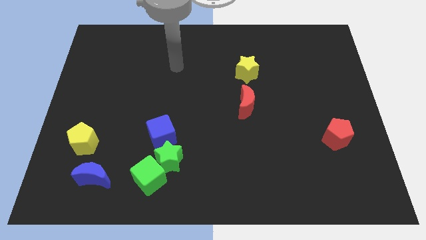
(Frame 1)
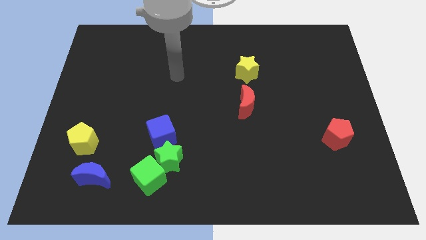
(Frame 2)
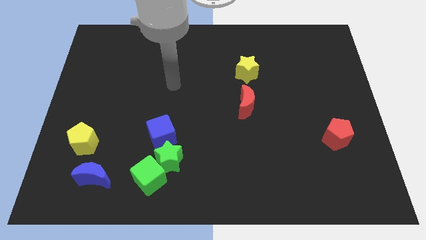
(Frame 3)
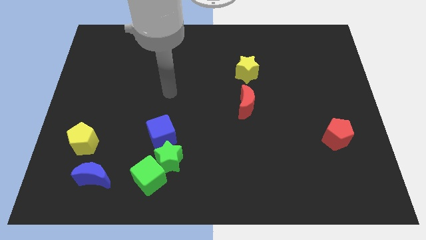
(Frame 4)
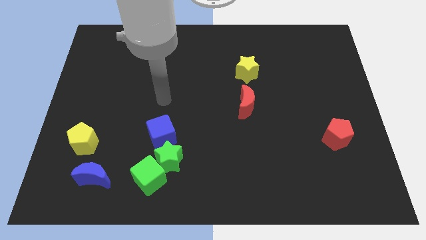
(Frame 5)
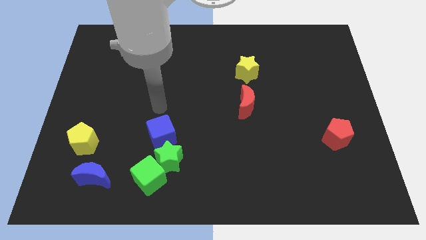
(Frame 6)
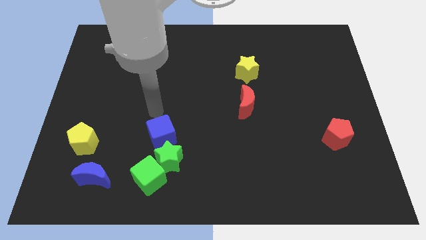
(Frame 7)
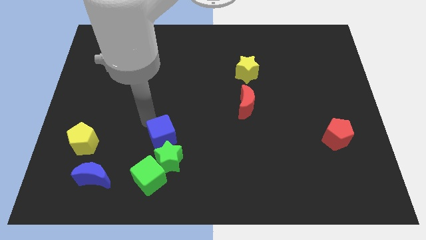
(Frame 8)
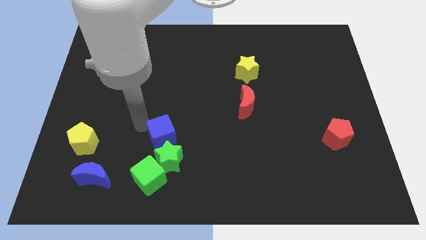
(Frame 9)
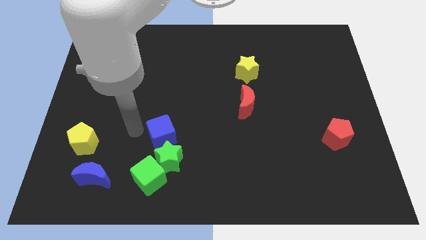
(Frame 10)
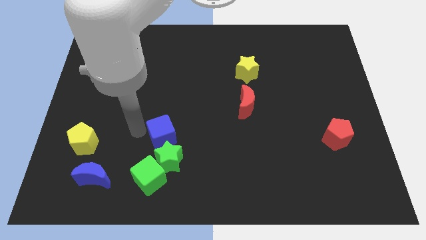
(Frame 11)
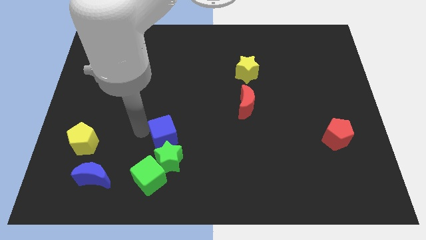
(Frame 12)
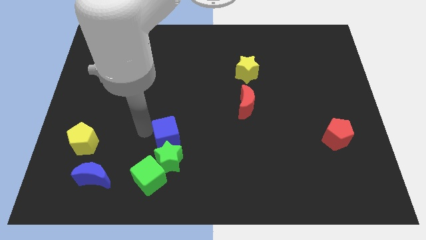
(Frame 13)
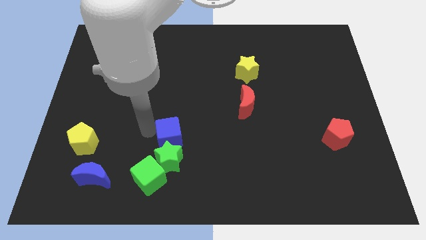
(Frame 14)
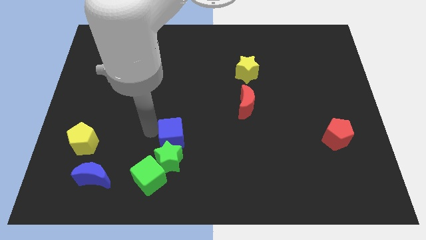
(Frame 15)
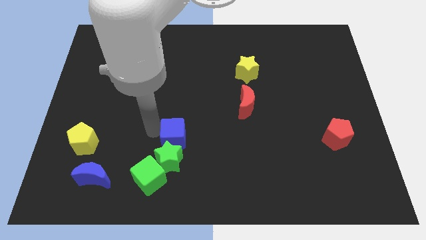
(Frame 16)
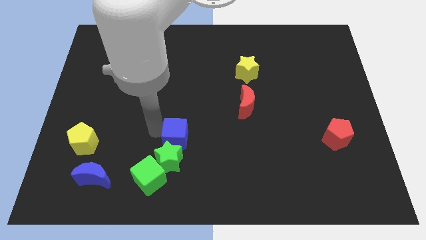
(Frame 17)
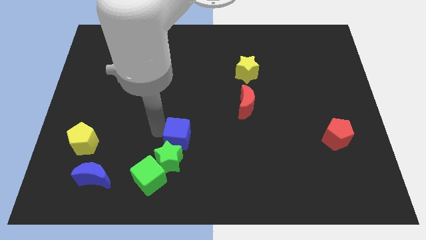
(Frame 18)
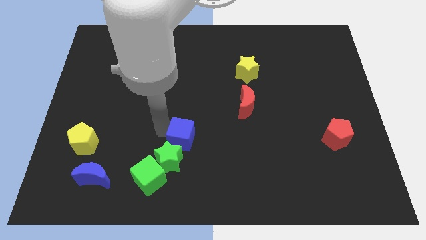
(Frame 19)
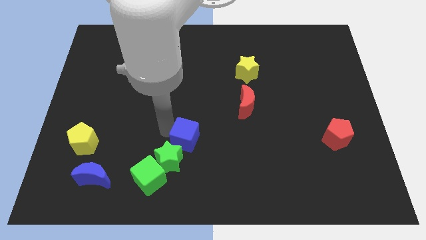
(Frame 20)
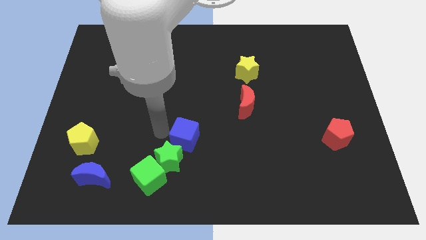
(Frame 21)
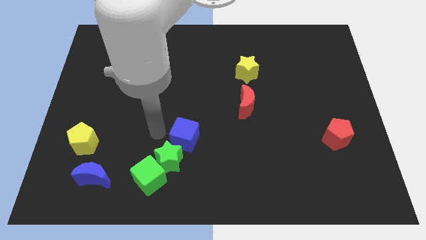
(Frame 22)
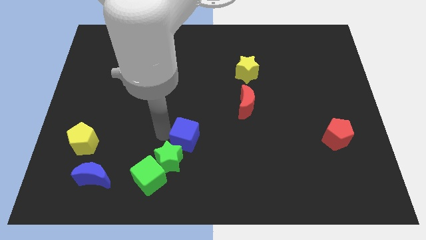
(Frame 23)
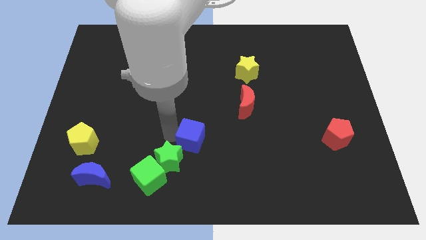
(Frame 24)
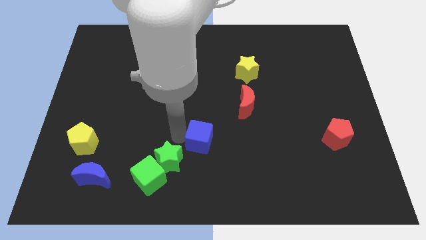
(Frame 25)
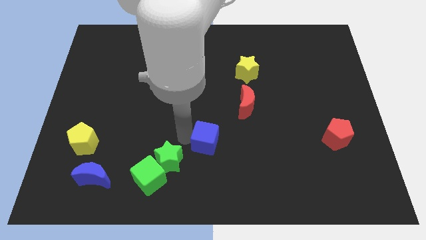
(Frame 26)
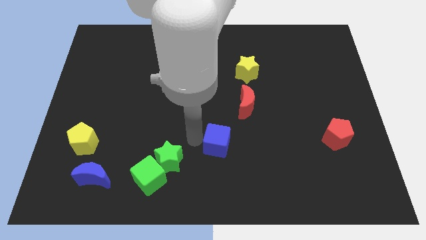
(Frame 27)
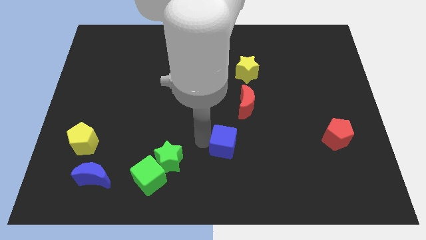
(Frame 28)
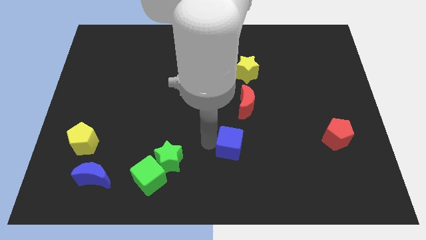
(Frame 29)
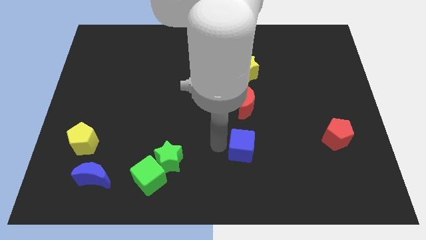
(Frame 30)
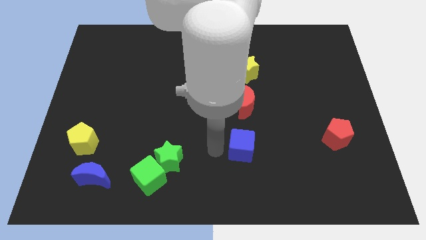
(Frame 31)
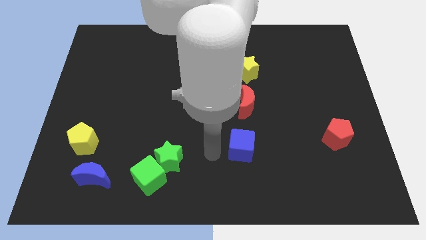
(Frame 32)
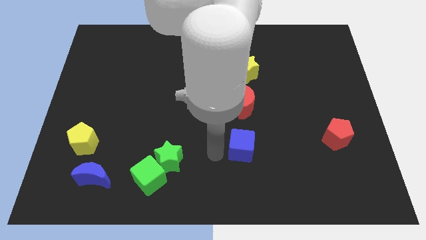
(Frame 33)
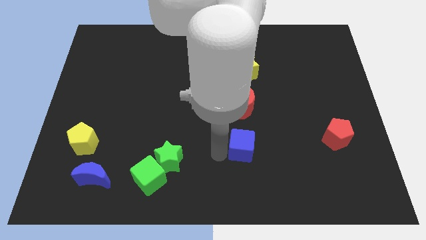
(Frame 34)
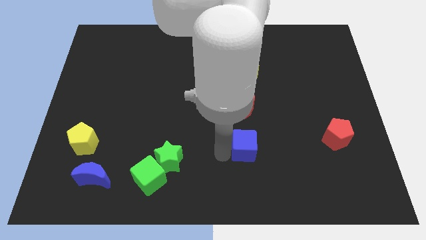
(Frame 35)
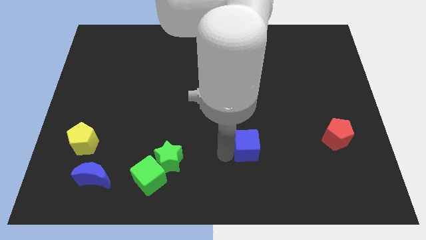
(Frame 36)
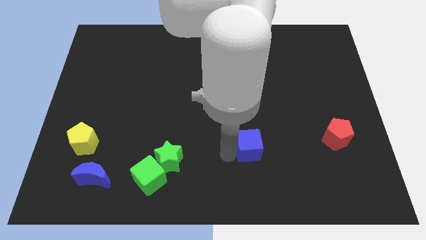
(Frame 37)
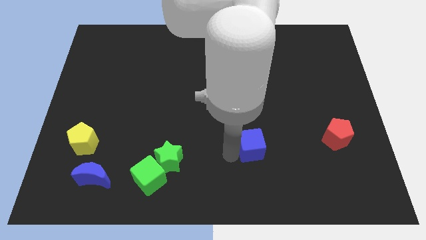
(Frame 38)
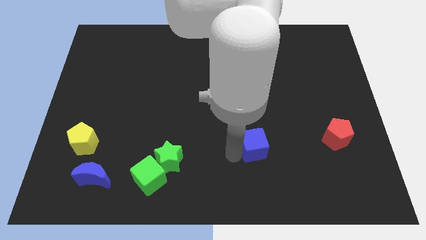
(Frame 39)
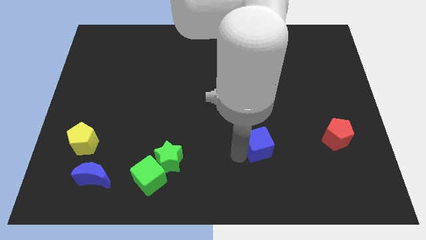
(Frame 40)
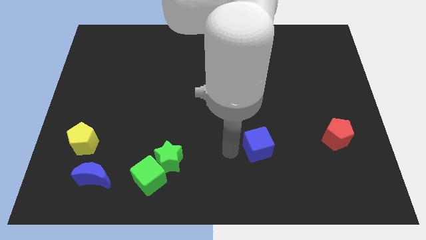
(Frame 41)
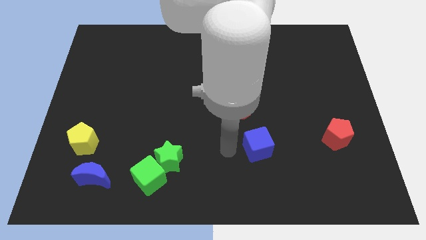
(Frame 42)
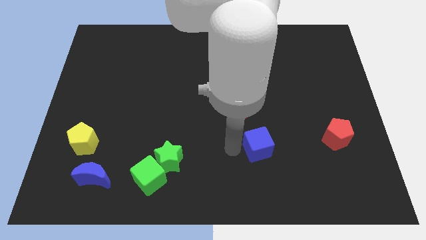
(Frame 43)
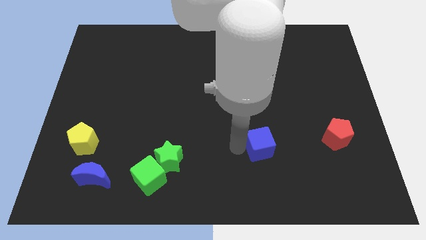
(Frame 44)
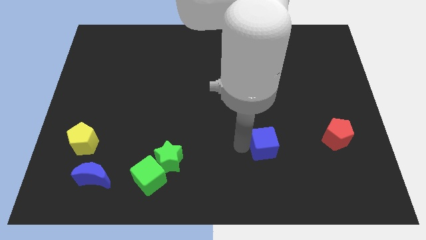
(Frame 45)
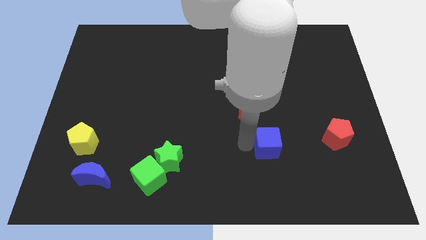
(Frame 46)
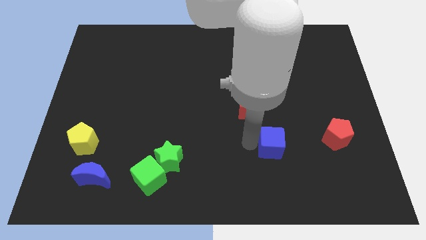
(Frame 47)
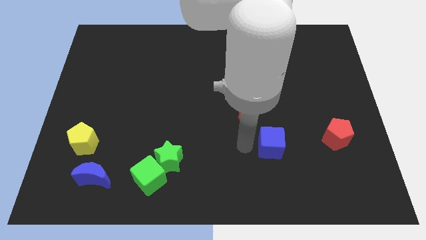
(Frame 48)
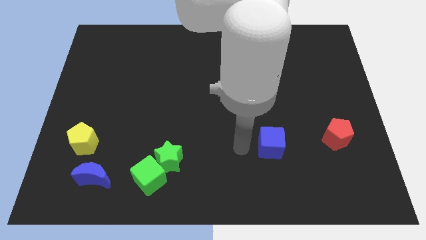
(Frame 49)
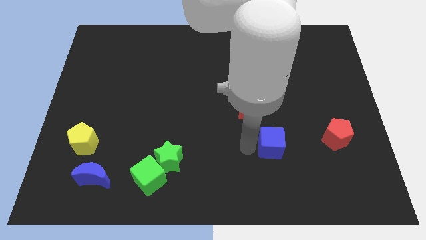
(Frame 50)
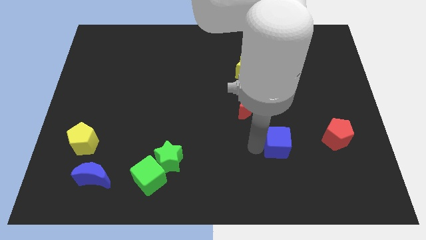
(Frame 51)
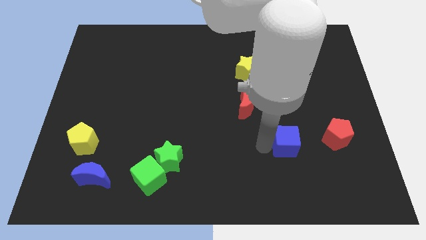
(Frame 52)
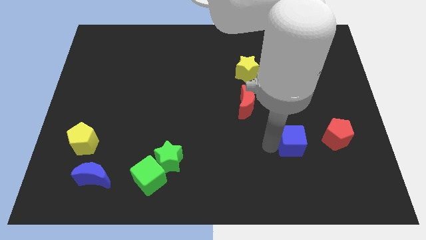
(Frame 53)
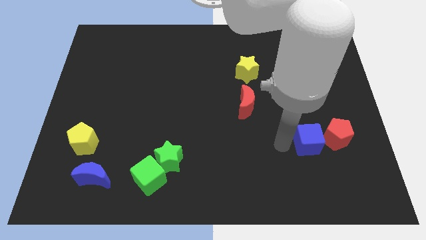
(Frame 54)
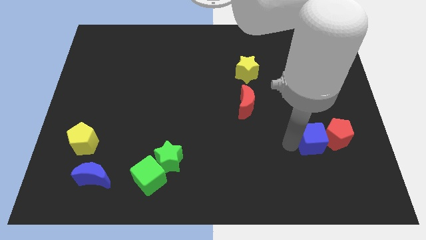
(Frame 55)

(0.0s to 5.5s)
slide the blue cube close to the red pentagon

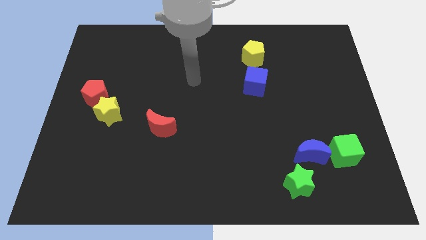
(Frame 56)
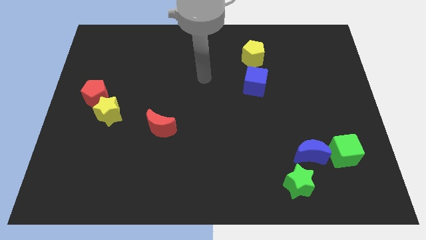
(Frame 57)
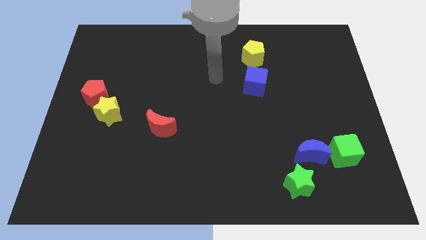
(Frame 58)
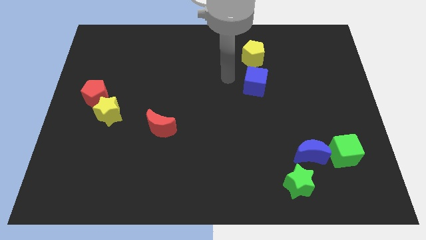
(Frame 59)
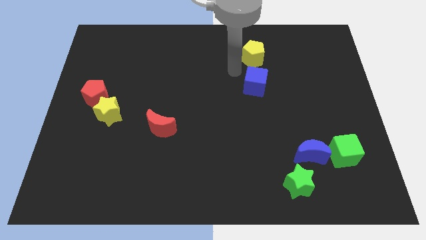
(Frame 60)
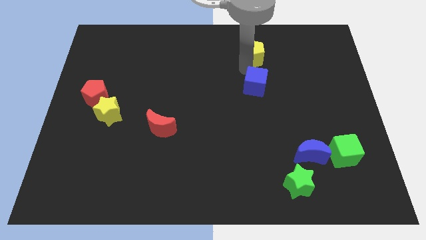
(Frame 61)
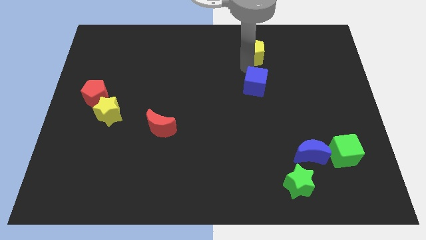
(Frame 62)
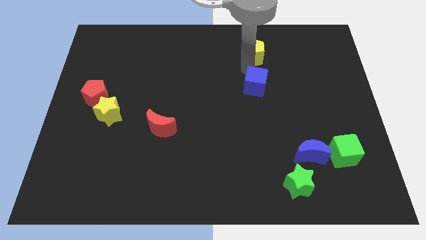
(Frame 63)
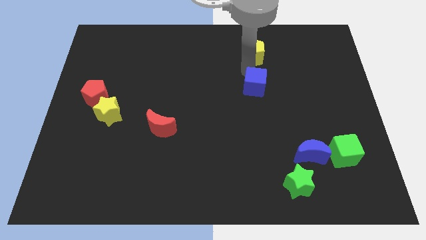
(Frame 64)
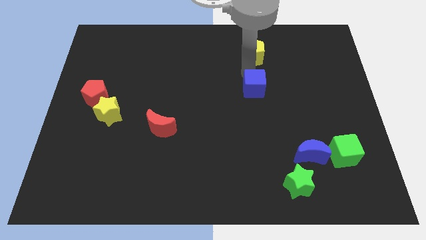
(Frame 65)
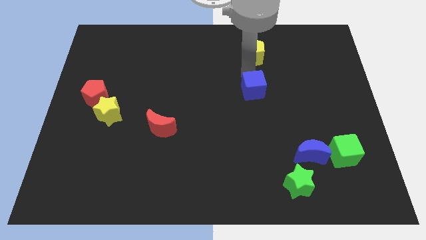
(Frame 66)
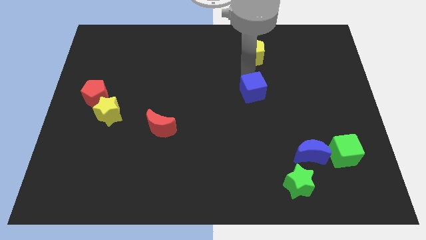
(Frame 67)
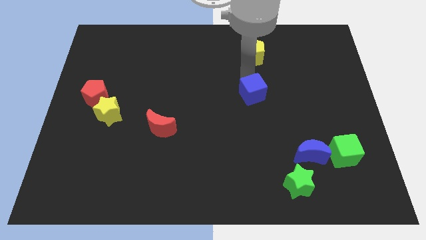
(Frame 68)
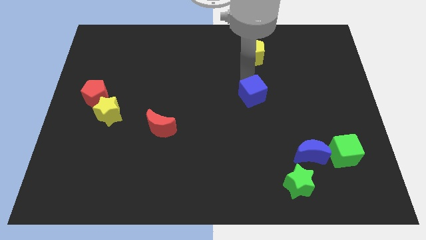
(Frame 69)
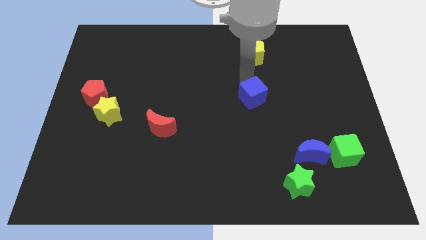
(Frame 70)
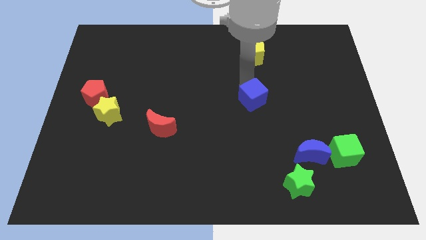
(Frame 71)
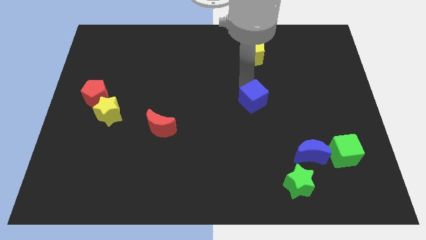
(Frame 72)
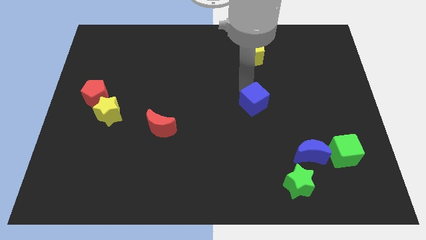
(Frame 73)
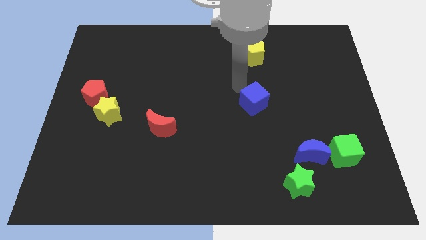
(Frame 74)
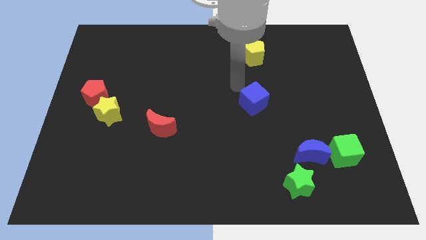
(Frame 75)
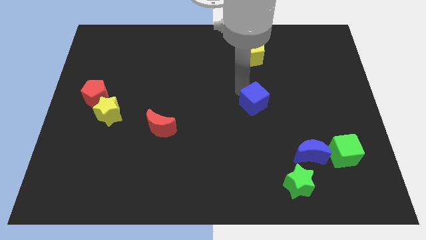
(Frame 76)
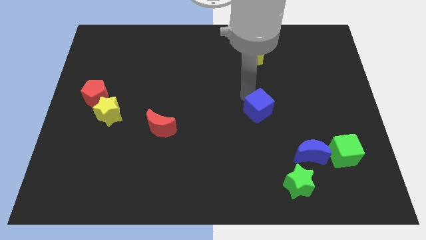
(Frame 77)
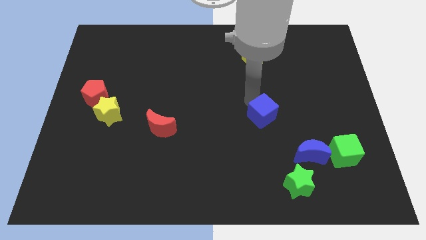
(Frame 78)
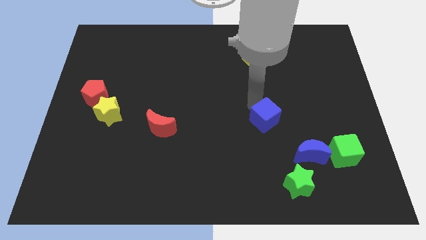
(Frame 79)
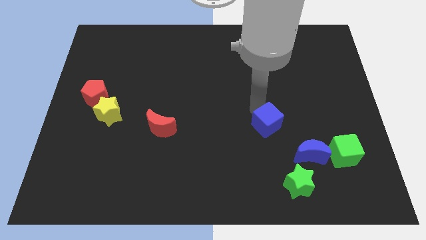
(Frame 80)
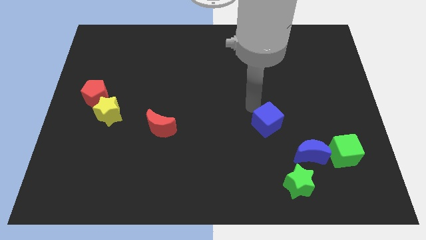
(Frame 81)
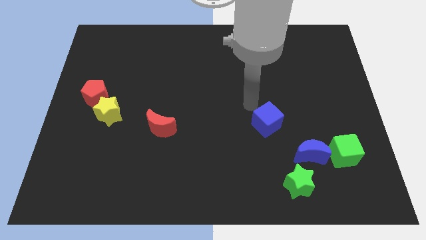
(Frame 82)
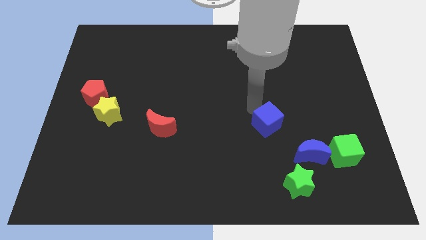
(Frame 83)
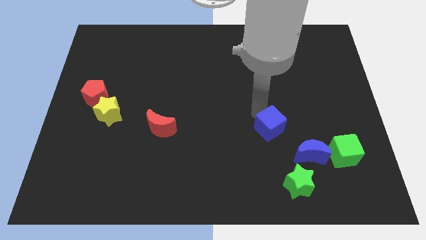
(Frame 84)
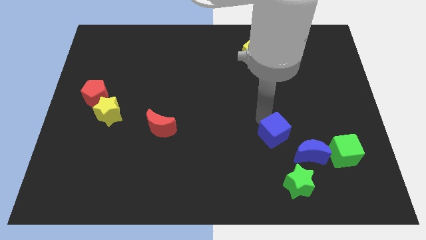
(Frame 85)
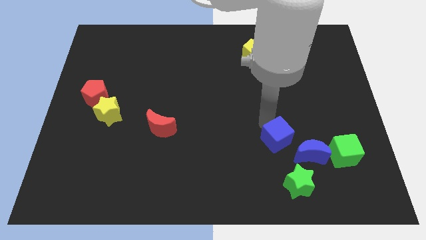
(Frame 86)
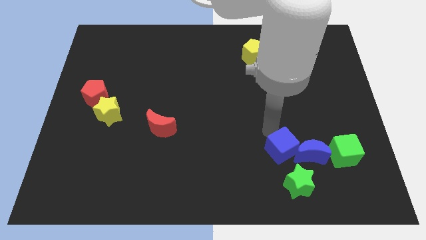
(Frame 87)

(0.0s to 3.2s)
slide the blue cube towards the blue moon
